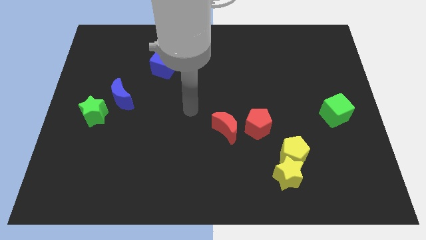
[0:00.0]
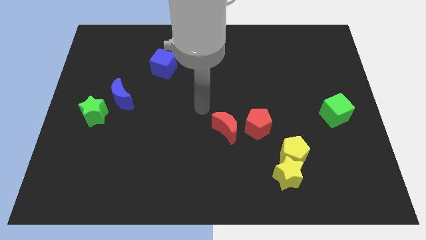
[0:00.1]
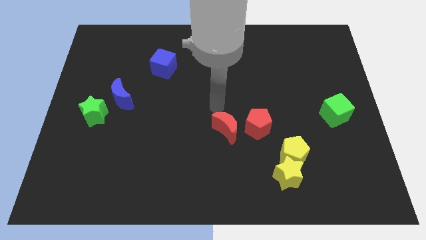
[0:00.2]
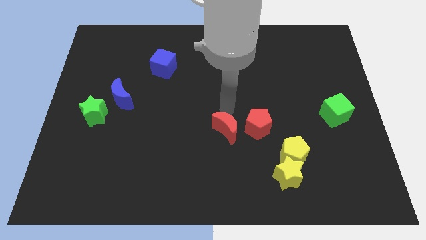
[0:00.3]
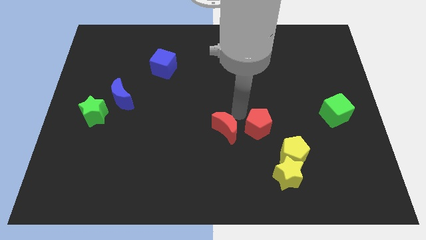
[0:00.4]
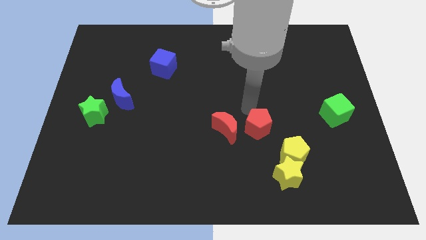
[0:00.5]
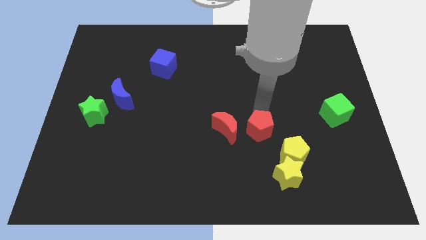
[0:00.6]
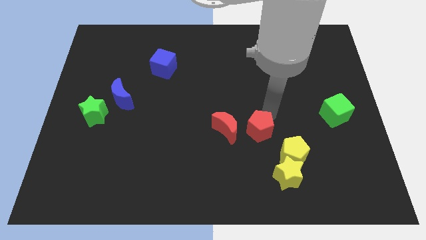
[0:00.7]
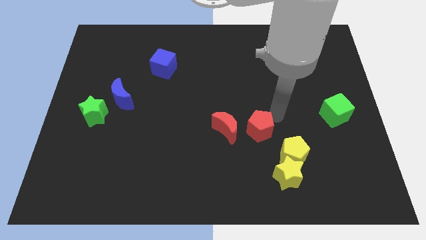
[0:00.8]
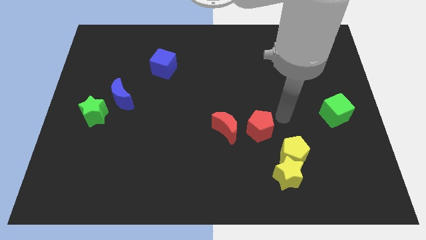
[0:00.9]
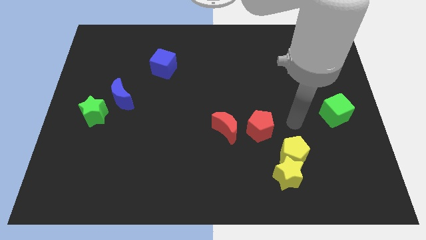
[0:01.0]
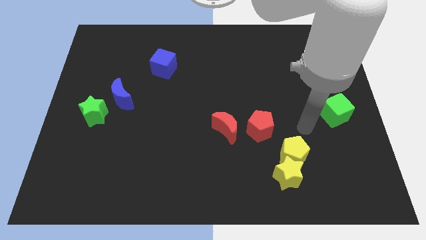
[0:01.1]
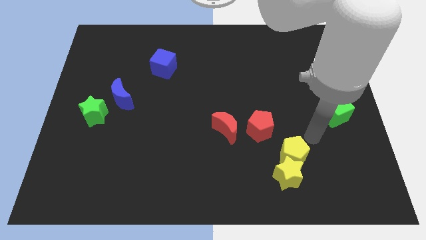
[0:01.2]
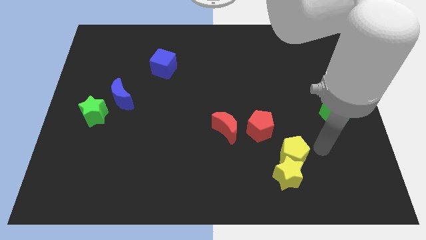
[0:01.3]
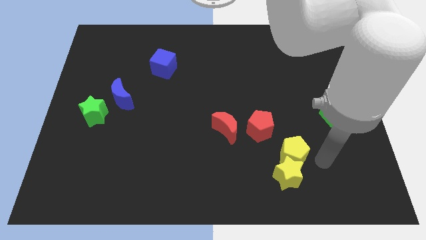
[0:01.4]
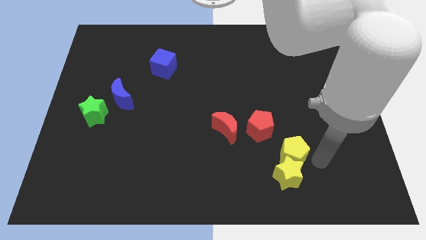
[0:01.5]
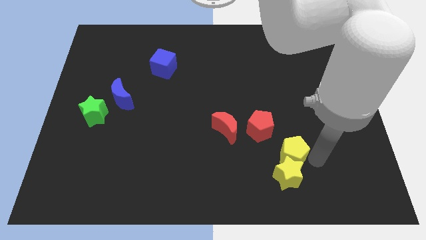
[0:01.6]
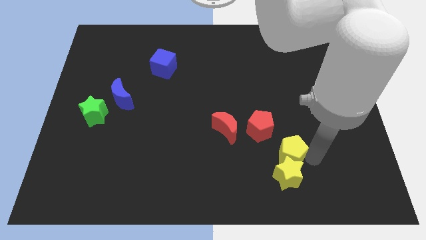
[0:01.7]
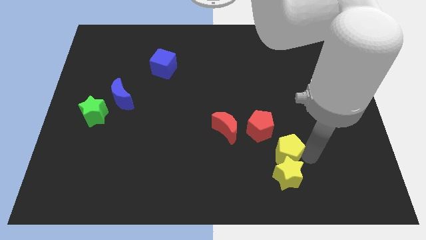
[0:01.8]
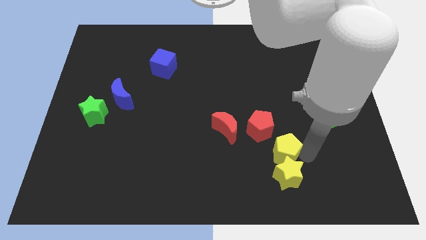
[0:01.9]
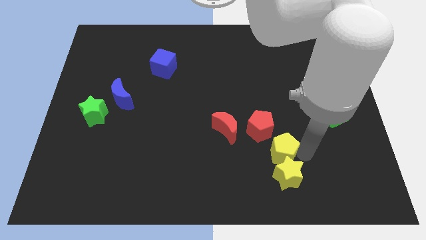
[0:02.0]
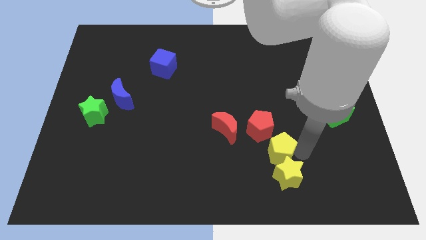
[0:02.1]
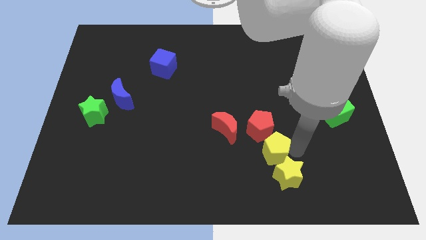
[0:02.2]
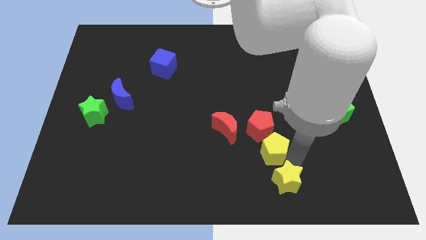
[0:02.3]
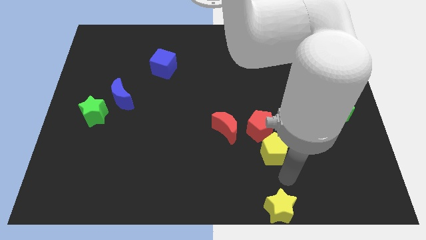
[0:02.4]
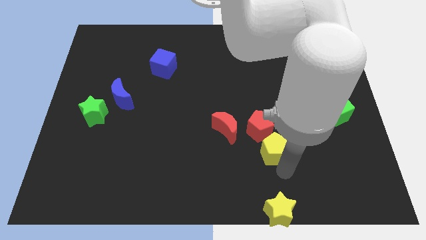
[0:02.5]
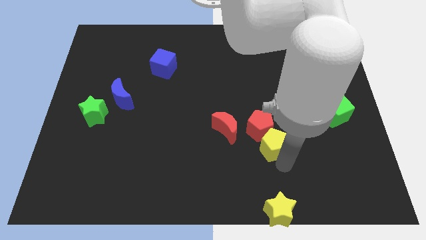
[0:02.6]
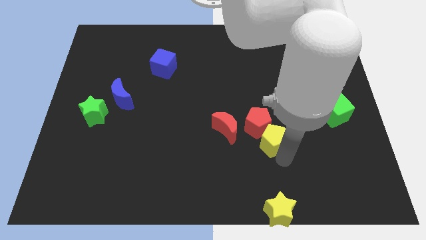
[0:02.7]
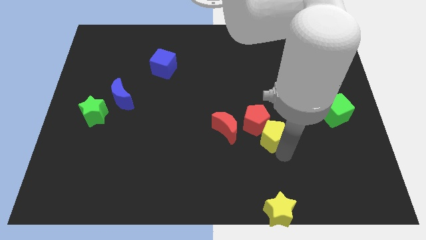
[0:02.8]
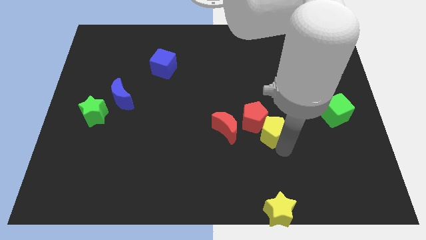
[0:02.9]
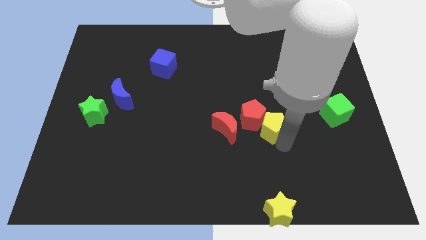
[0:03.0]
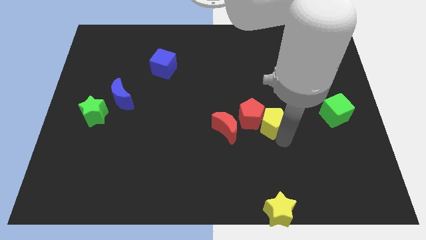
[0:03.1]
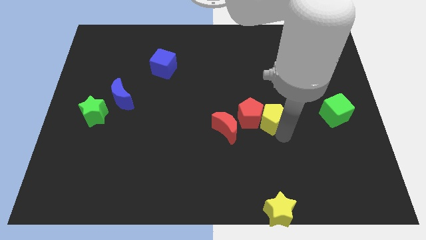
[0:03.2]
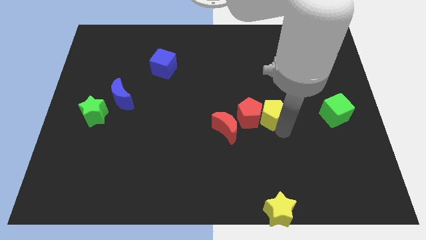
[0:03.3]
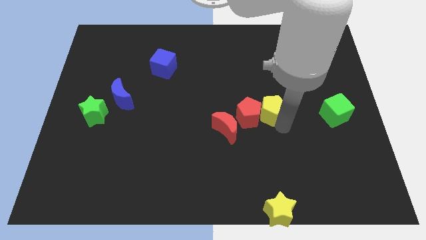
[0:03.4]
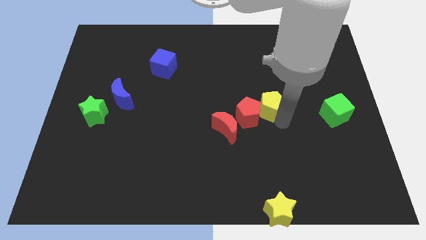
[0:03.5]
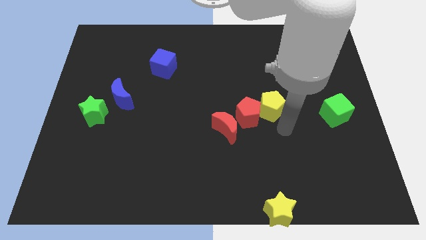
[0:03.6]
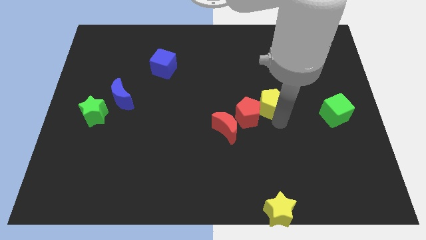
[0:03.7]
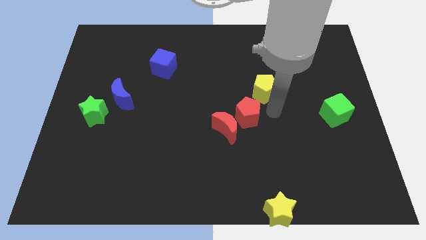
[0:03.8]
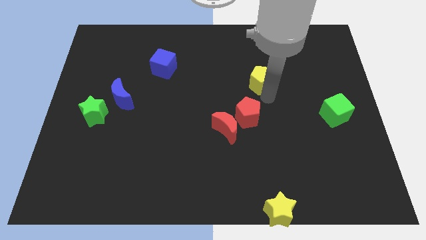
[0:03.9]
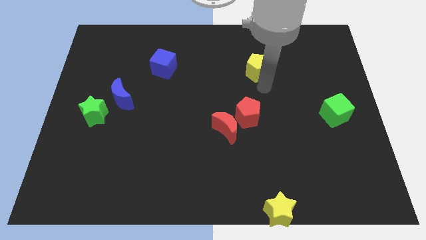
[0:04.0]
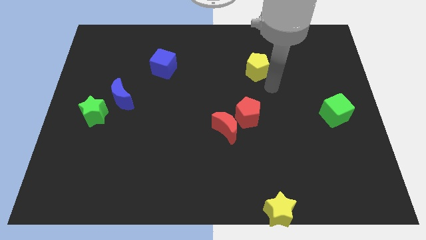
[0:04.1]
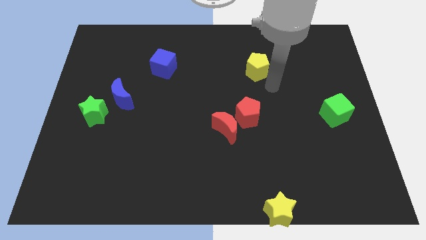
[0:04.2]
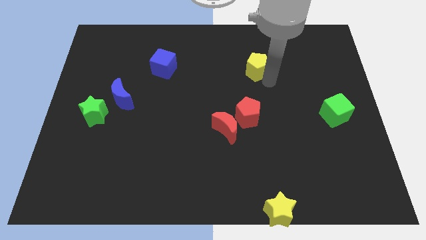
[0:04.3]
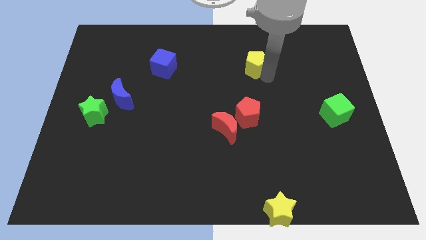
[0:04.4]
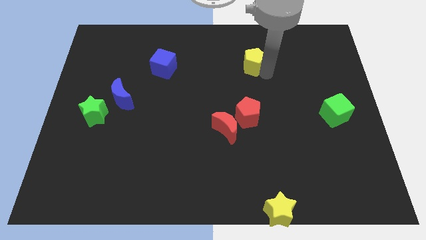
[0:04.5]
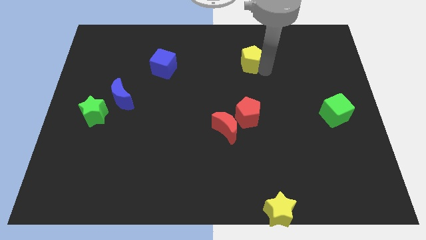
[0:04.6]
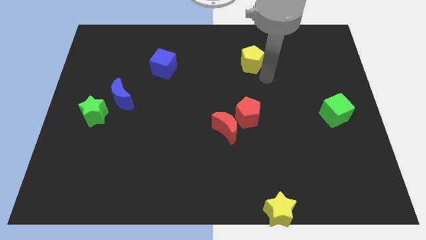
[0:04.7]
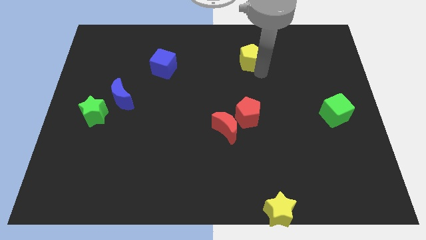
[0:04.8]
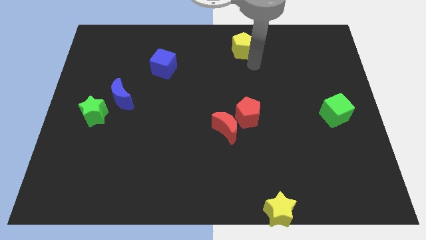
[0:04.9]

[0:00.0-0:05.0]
move the yellow pentagon to the top

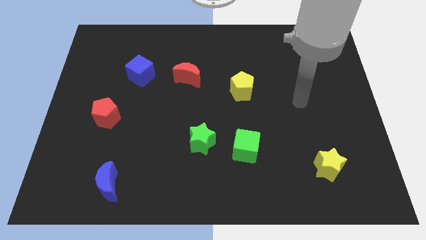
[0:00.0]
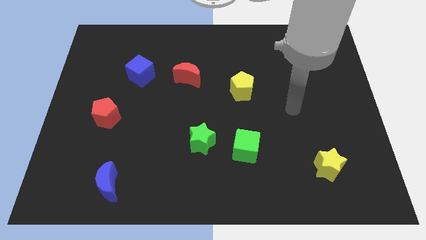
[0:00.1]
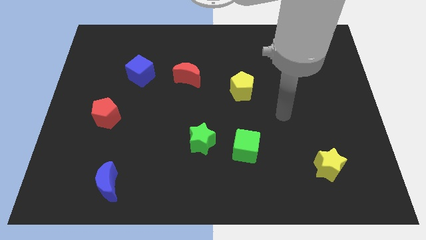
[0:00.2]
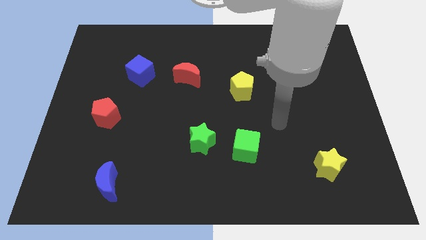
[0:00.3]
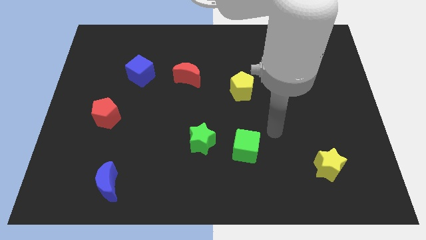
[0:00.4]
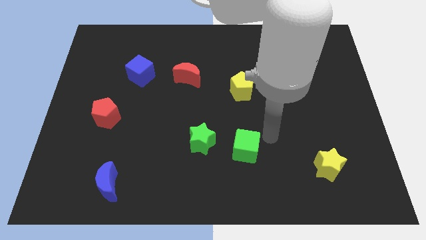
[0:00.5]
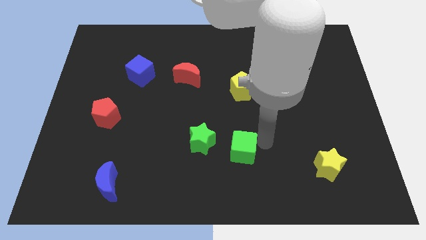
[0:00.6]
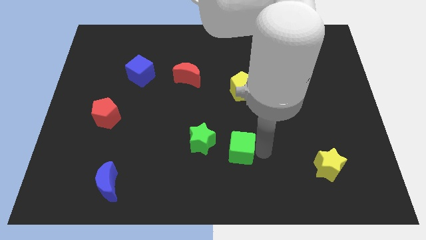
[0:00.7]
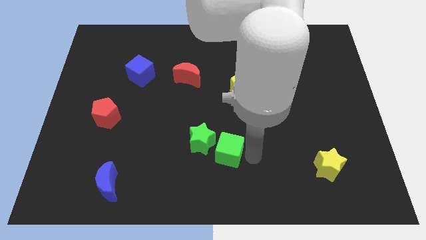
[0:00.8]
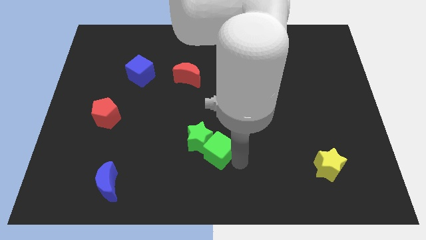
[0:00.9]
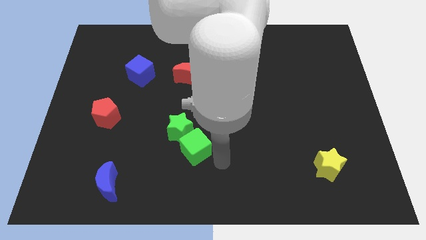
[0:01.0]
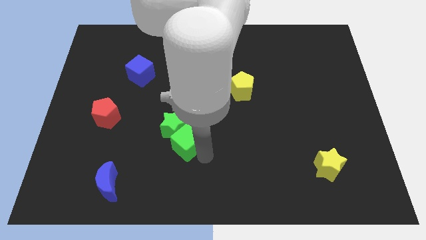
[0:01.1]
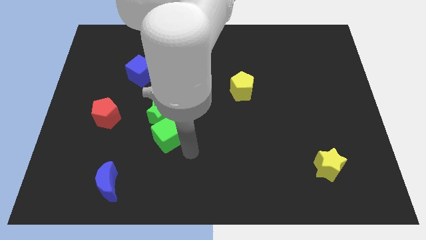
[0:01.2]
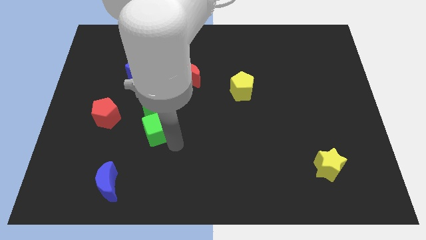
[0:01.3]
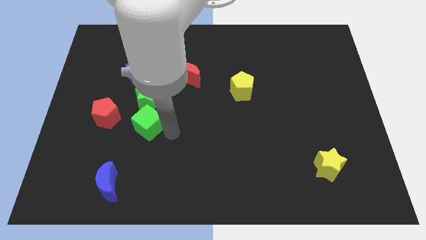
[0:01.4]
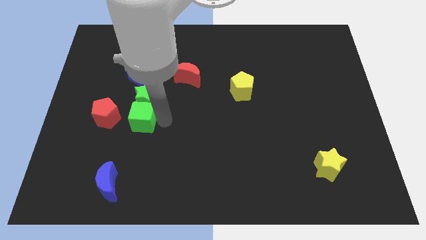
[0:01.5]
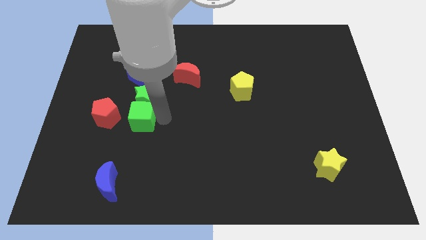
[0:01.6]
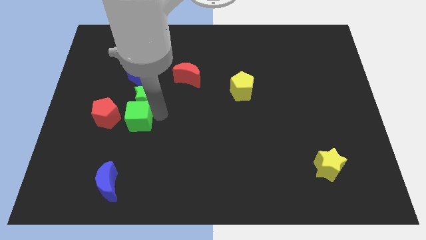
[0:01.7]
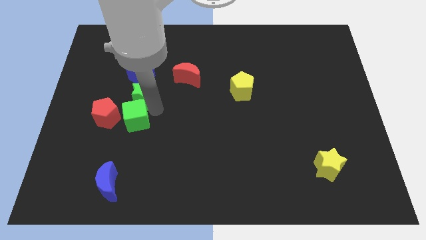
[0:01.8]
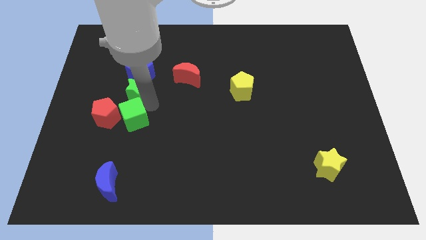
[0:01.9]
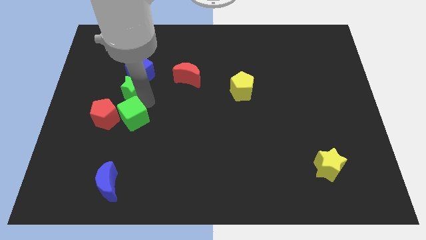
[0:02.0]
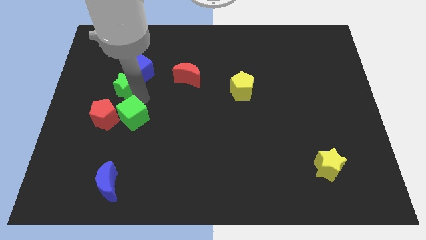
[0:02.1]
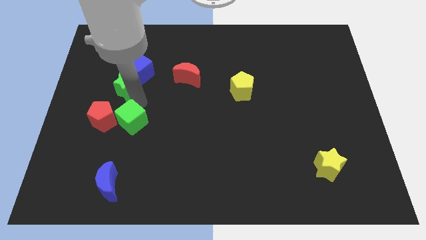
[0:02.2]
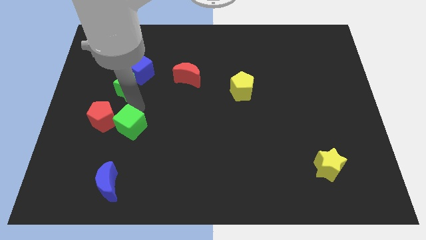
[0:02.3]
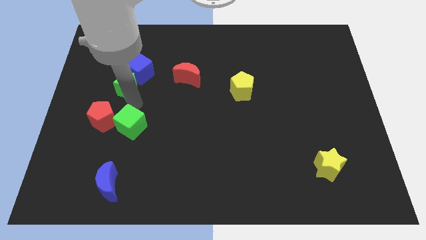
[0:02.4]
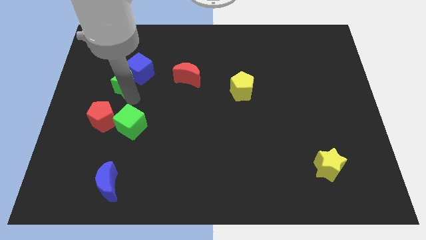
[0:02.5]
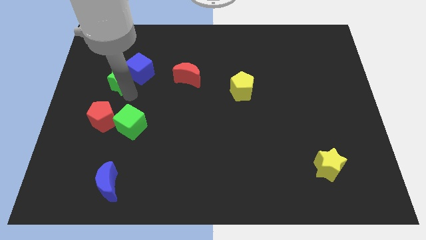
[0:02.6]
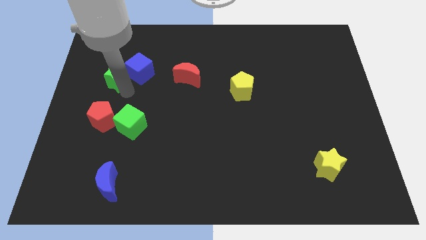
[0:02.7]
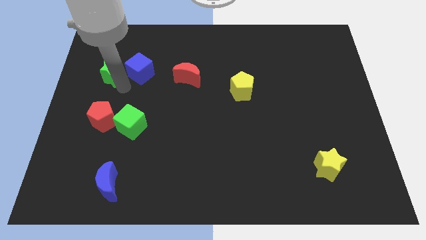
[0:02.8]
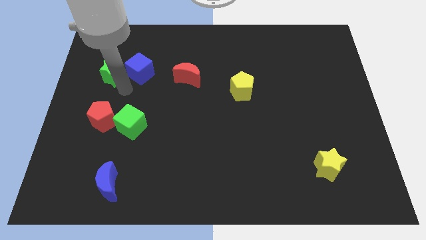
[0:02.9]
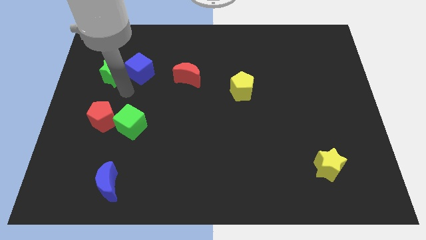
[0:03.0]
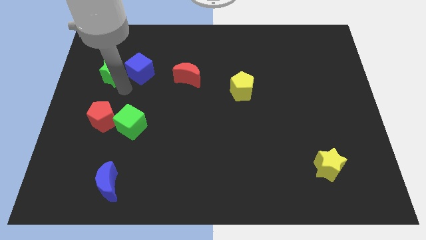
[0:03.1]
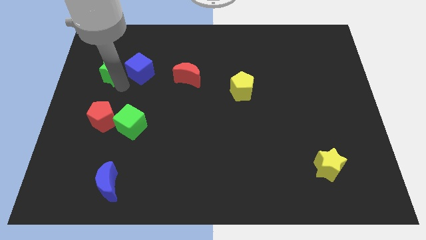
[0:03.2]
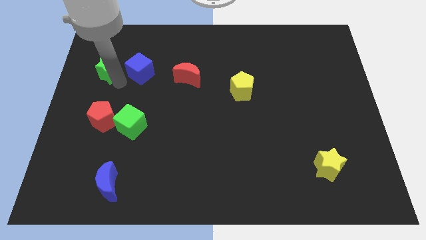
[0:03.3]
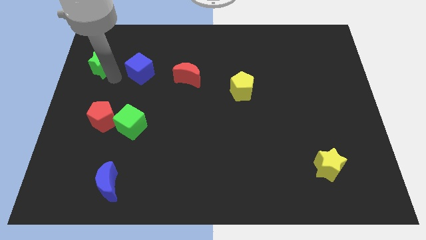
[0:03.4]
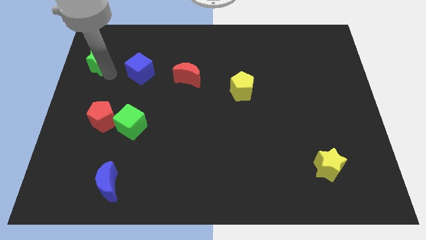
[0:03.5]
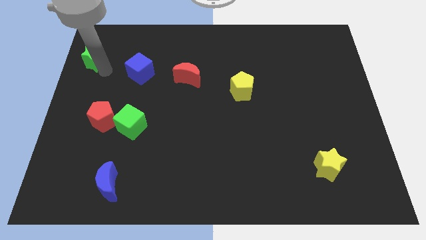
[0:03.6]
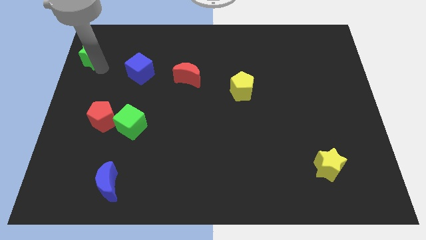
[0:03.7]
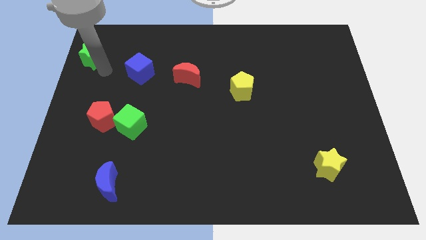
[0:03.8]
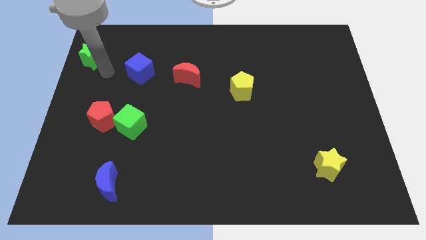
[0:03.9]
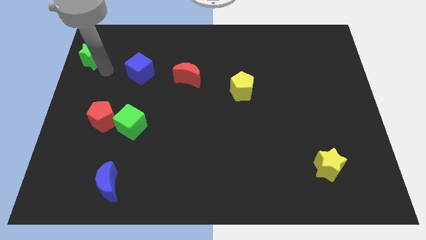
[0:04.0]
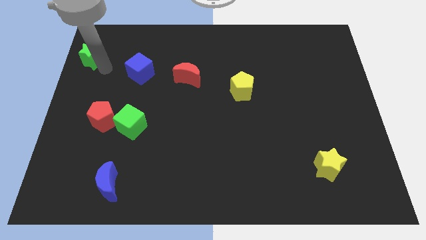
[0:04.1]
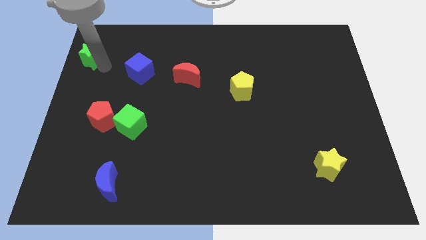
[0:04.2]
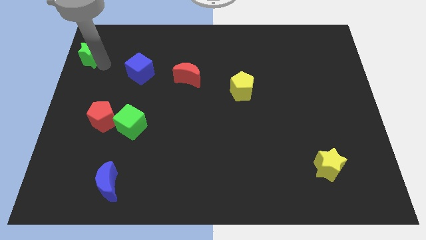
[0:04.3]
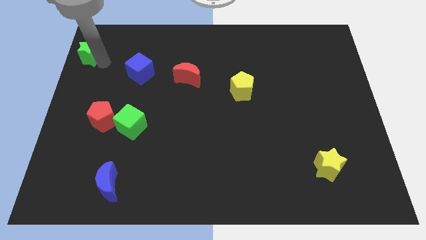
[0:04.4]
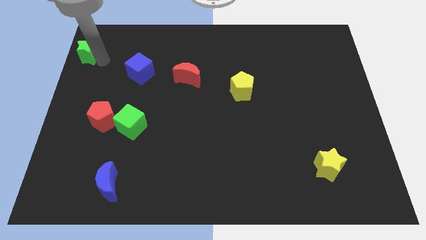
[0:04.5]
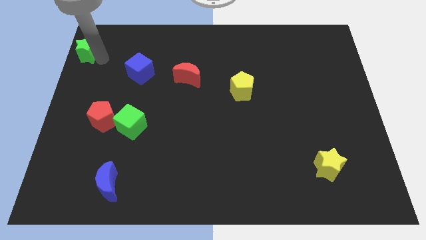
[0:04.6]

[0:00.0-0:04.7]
put the green star to the upper left corner
